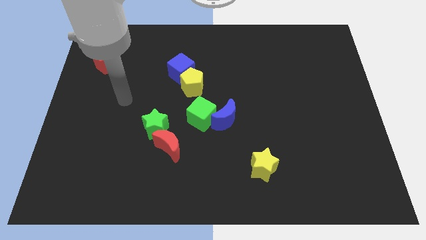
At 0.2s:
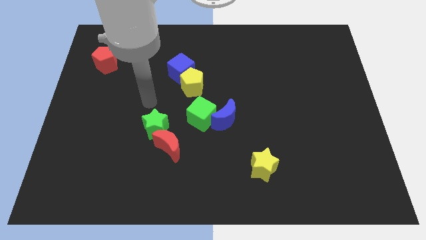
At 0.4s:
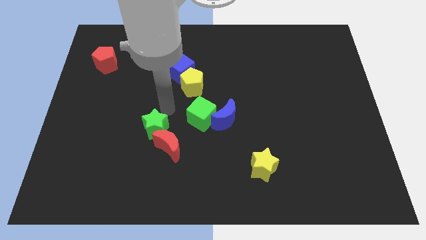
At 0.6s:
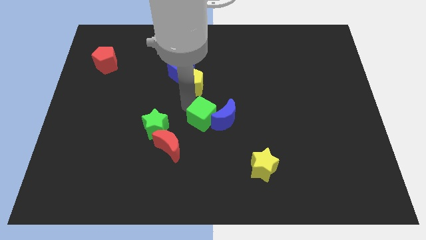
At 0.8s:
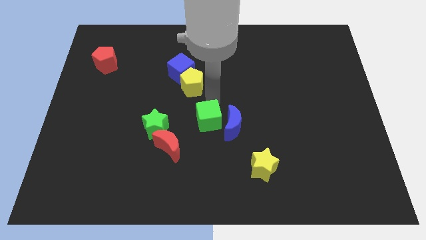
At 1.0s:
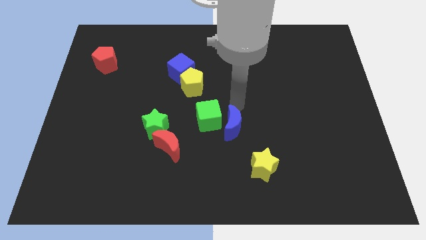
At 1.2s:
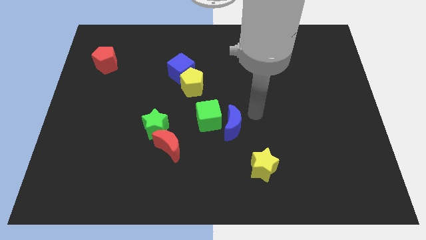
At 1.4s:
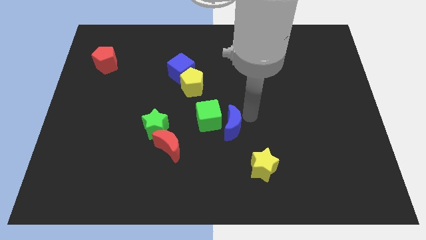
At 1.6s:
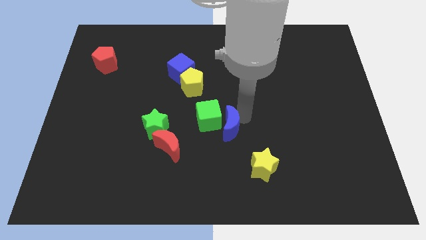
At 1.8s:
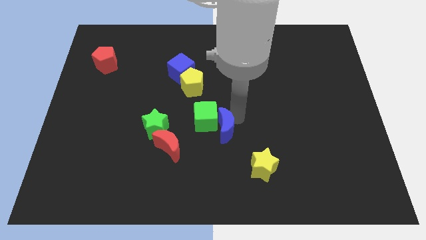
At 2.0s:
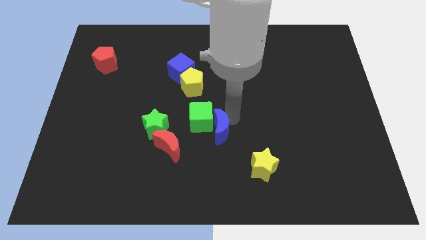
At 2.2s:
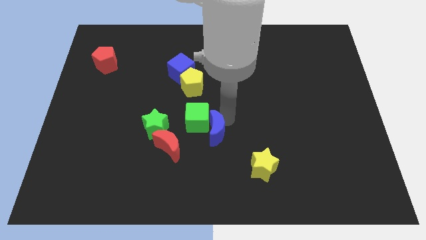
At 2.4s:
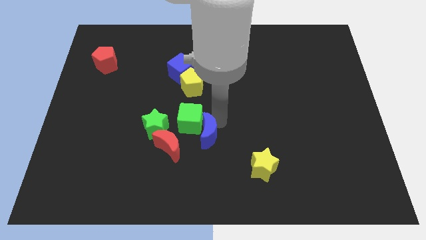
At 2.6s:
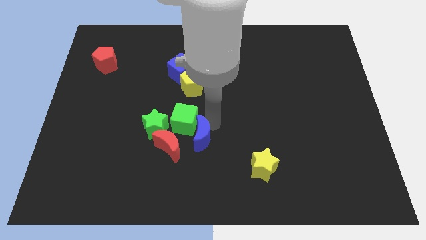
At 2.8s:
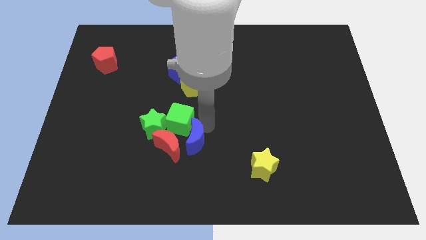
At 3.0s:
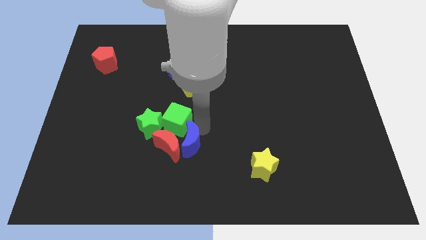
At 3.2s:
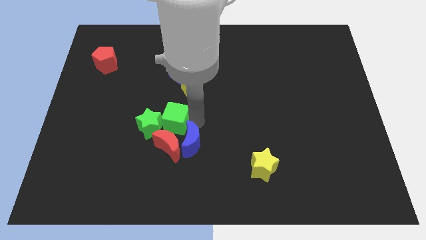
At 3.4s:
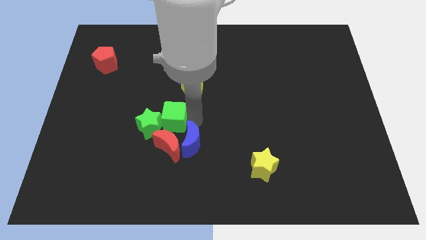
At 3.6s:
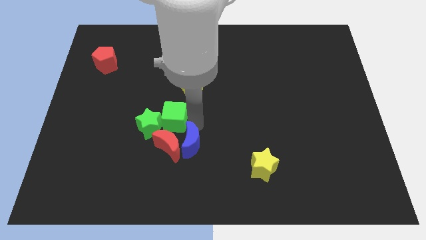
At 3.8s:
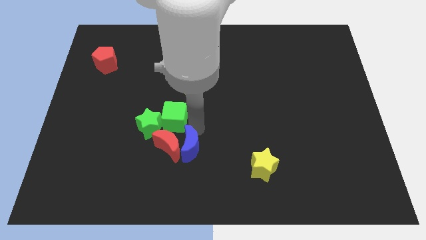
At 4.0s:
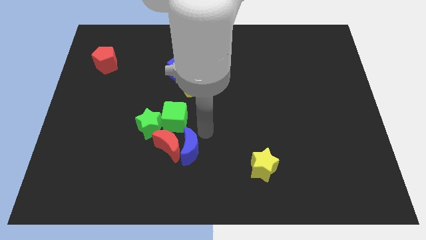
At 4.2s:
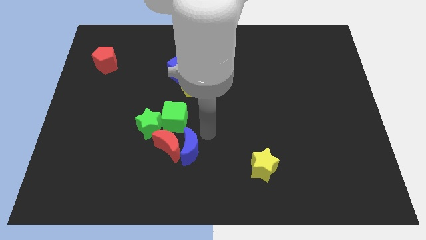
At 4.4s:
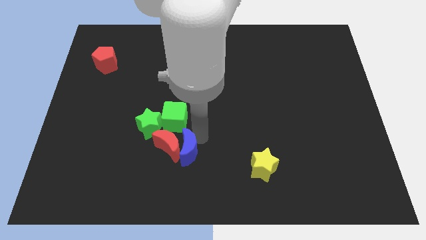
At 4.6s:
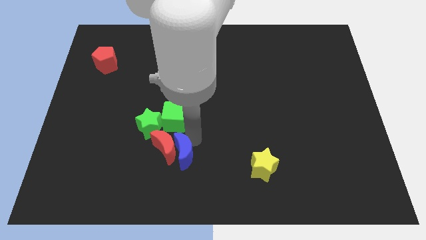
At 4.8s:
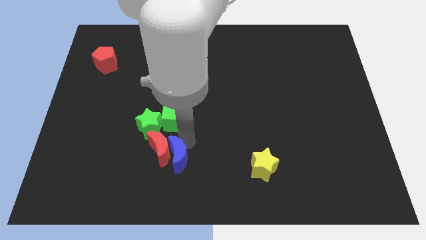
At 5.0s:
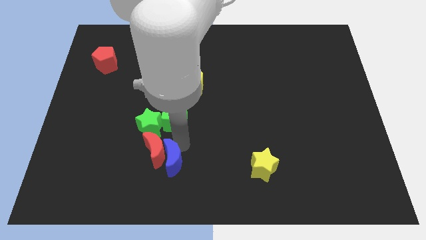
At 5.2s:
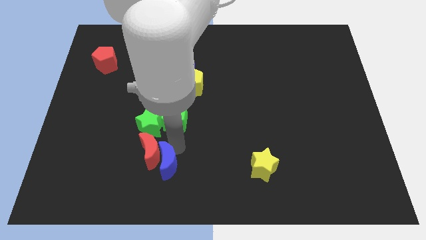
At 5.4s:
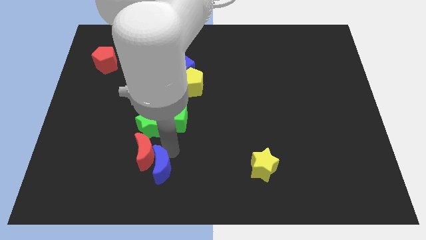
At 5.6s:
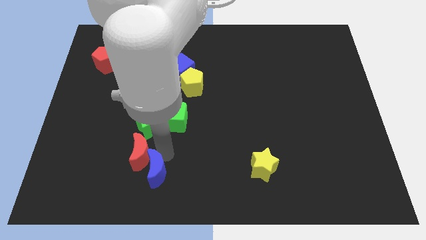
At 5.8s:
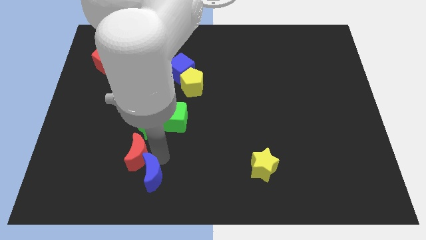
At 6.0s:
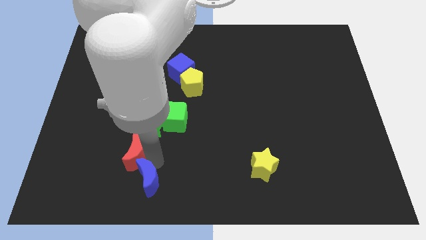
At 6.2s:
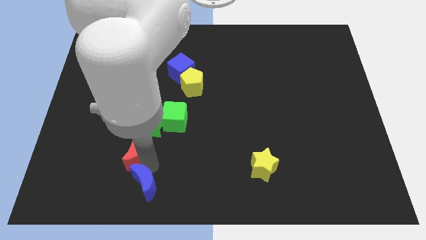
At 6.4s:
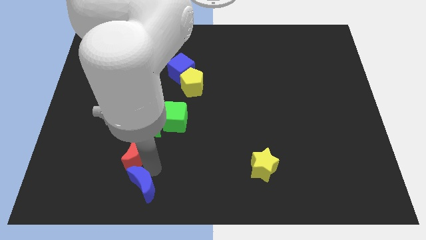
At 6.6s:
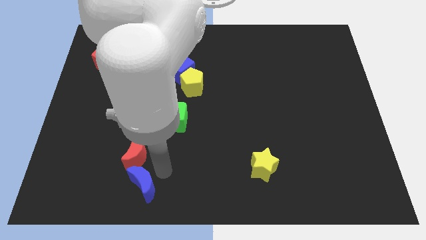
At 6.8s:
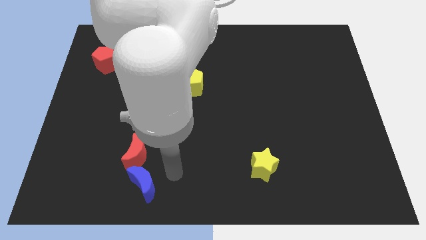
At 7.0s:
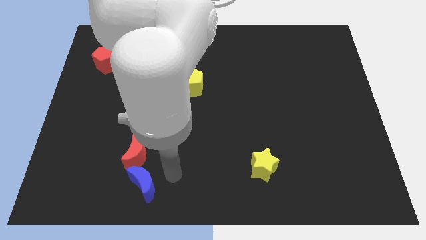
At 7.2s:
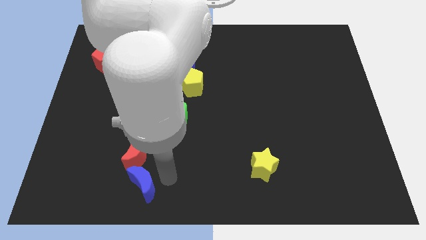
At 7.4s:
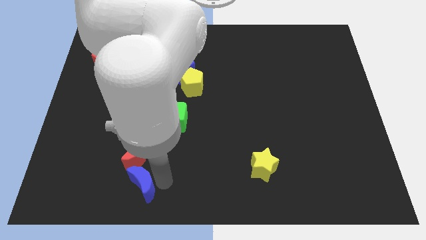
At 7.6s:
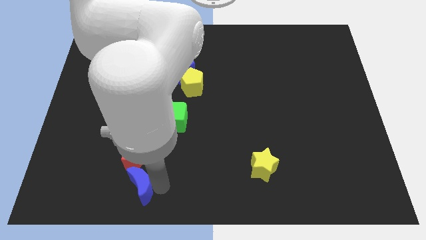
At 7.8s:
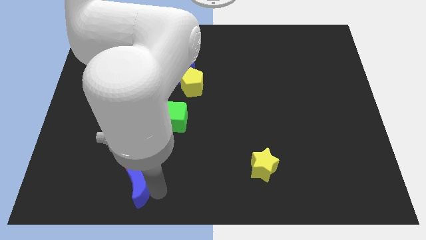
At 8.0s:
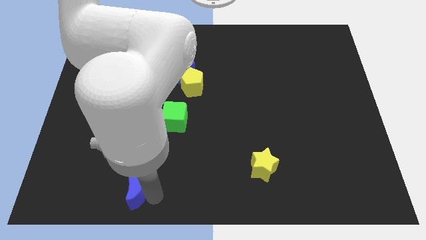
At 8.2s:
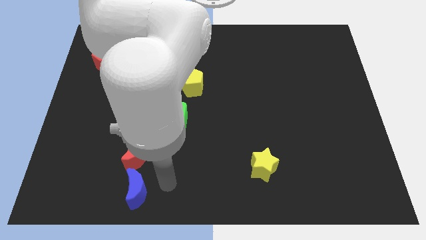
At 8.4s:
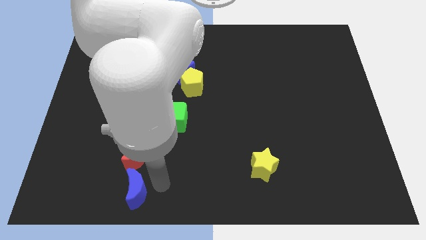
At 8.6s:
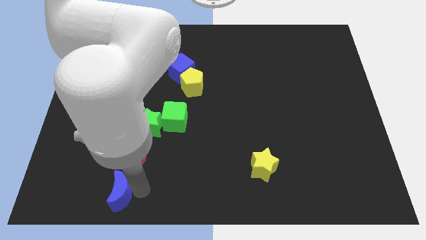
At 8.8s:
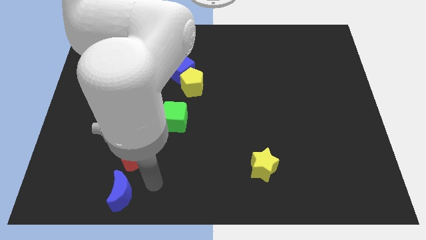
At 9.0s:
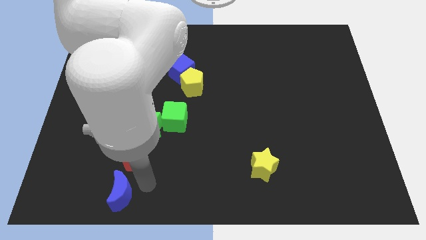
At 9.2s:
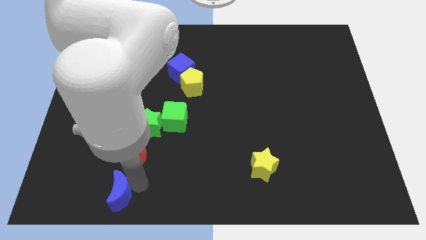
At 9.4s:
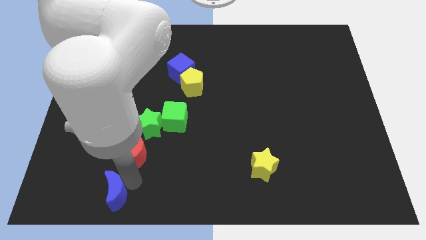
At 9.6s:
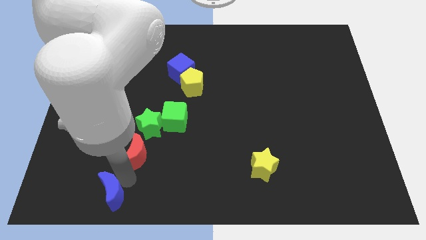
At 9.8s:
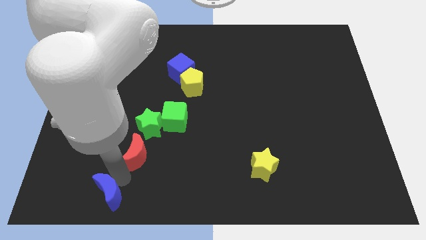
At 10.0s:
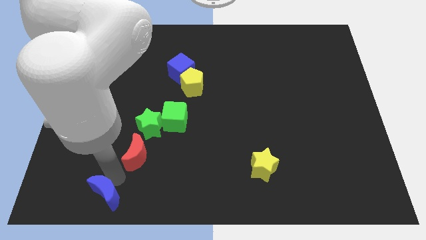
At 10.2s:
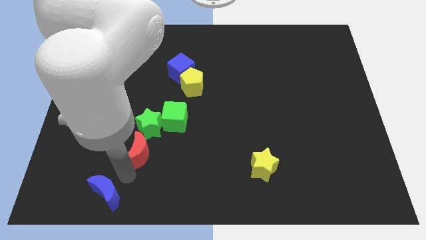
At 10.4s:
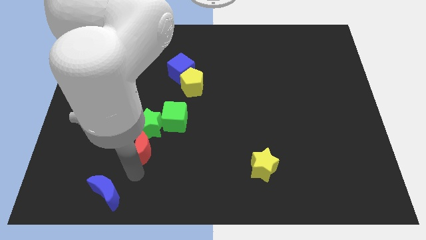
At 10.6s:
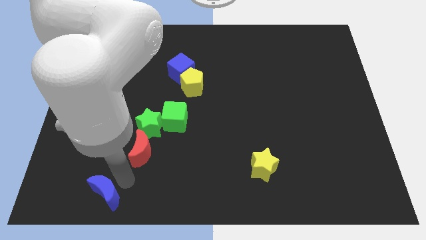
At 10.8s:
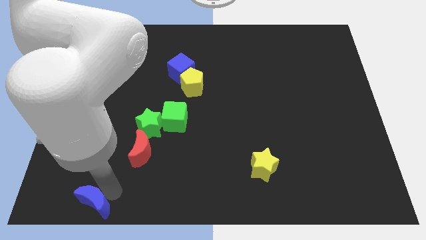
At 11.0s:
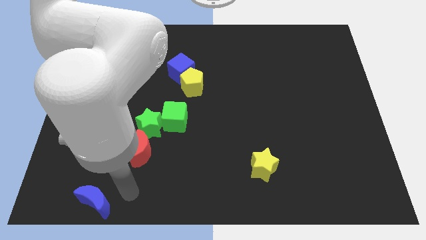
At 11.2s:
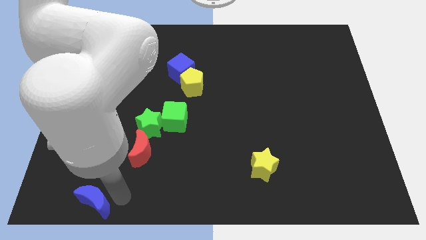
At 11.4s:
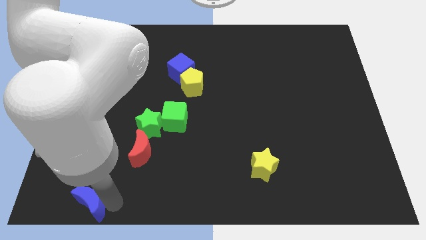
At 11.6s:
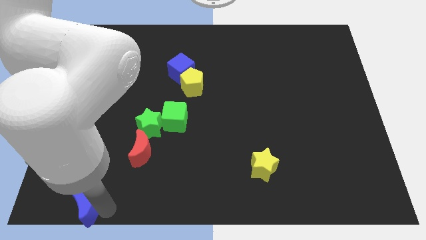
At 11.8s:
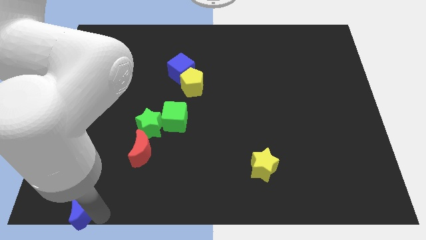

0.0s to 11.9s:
move the blue moon to the bottom left corner
